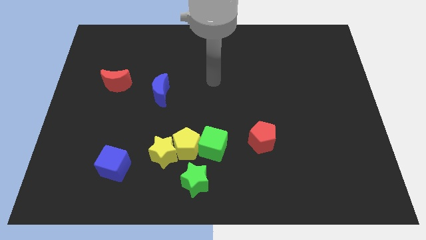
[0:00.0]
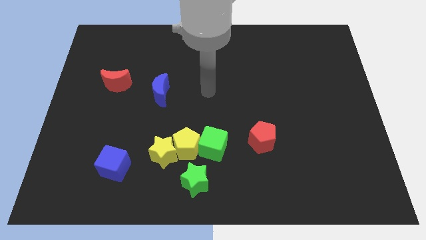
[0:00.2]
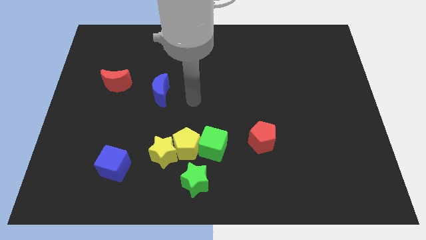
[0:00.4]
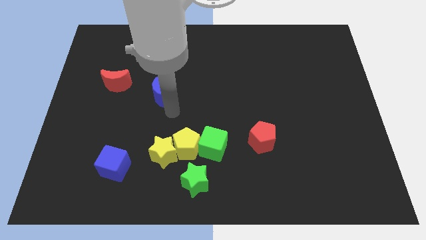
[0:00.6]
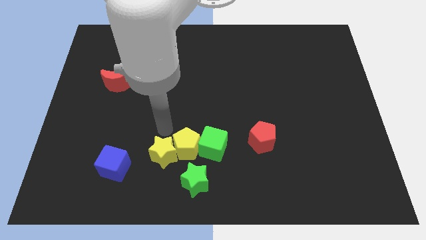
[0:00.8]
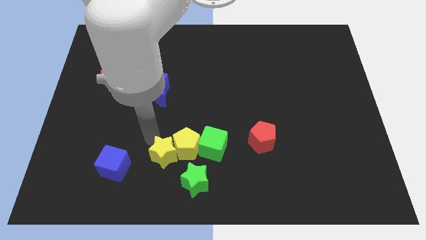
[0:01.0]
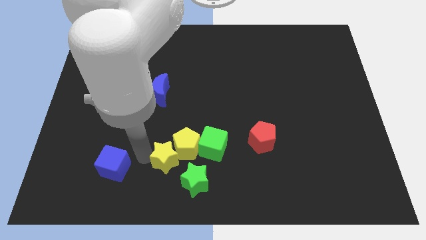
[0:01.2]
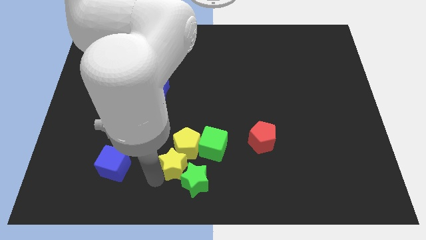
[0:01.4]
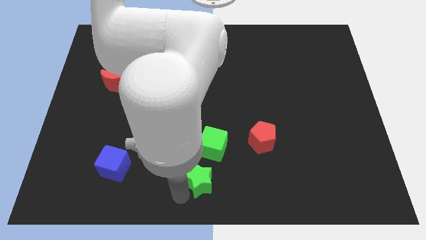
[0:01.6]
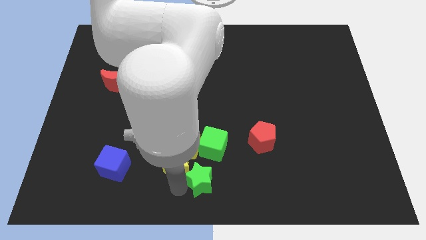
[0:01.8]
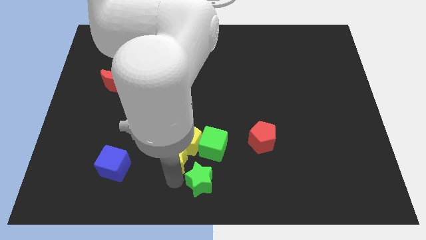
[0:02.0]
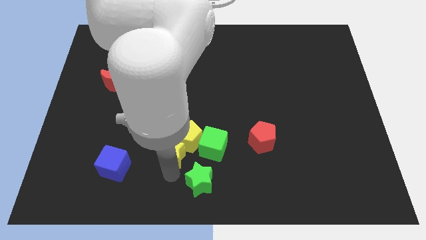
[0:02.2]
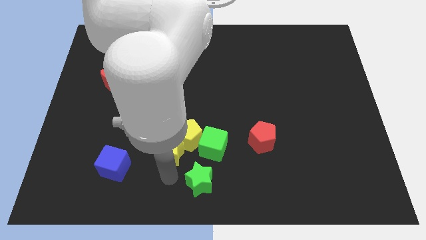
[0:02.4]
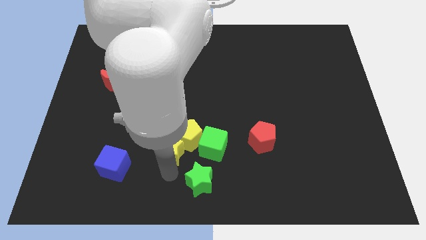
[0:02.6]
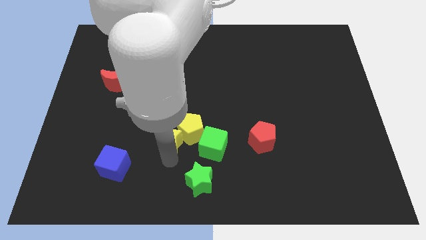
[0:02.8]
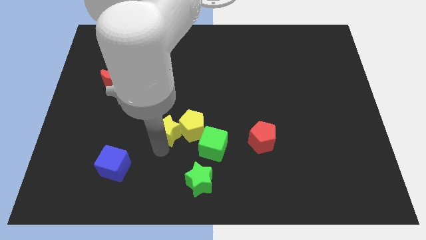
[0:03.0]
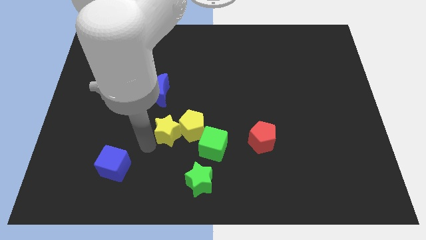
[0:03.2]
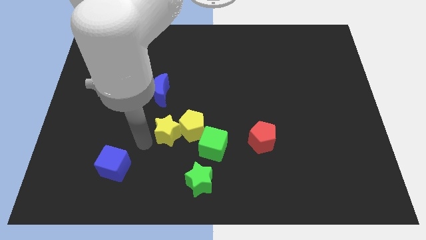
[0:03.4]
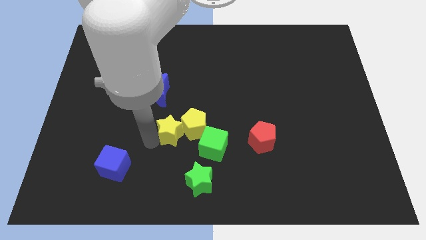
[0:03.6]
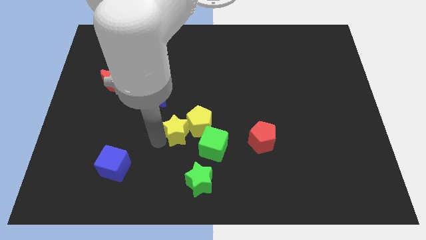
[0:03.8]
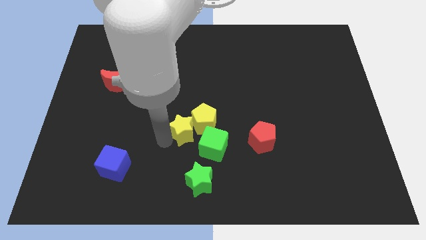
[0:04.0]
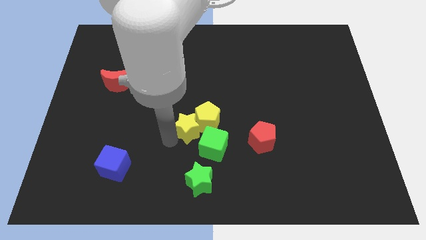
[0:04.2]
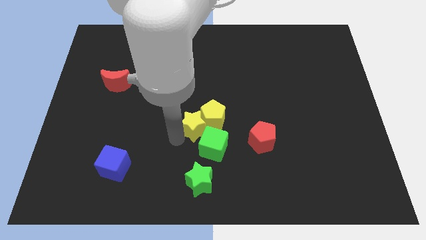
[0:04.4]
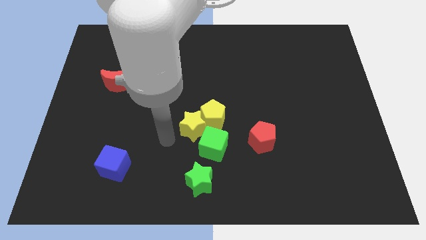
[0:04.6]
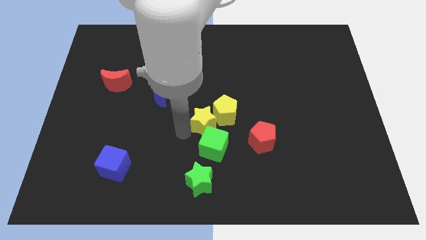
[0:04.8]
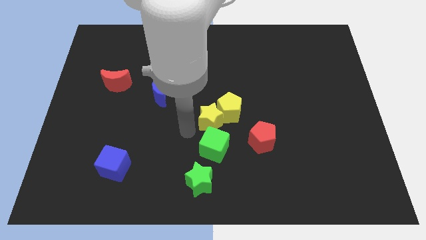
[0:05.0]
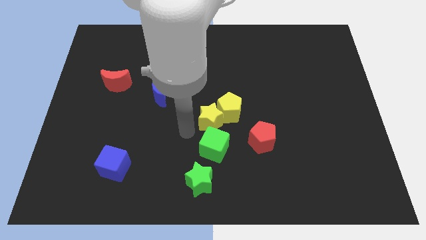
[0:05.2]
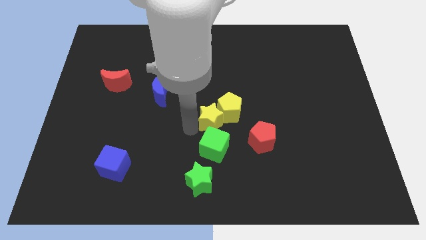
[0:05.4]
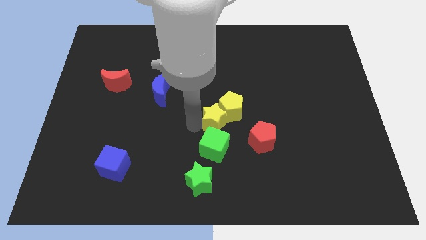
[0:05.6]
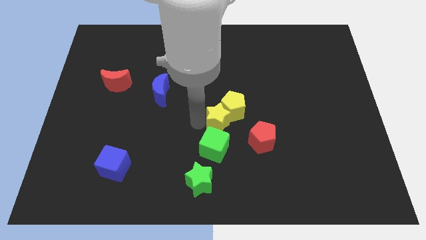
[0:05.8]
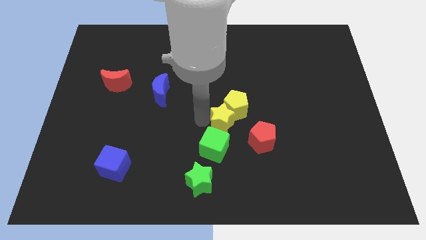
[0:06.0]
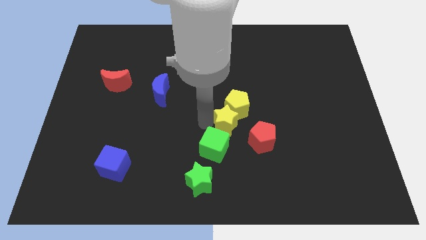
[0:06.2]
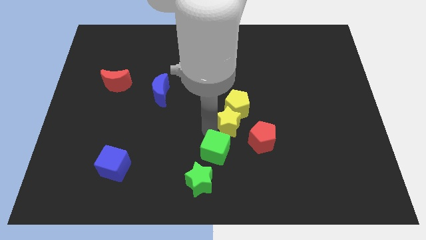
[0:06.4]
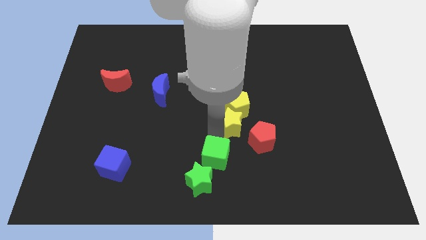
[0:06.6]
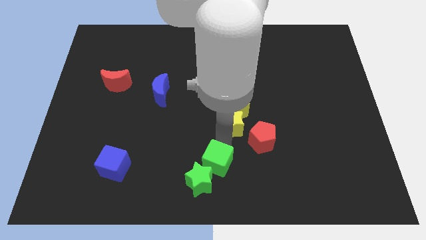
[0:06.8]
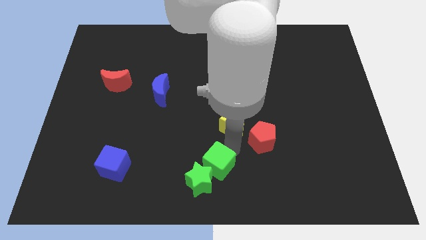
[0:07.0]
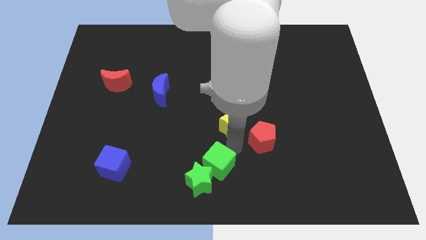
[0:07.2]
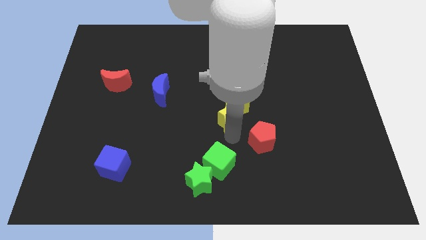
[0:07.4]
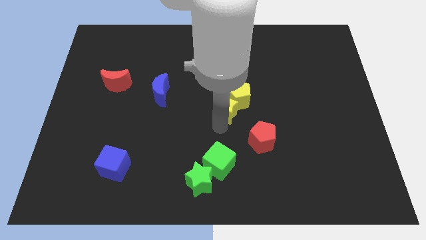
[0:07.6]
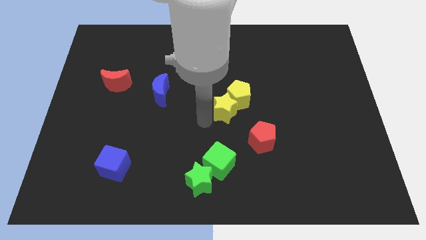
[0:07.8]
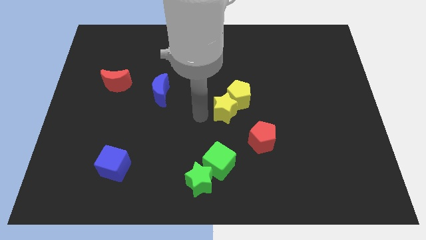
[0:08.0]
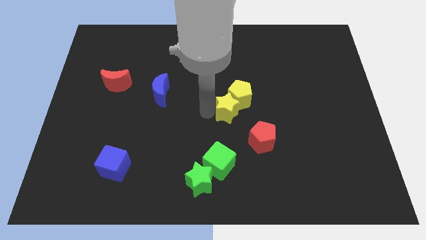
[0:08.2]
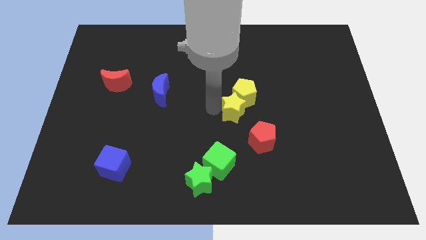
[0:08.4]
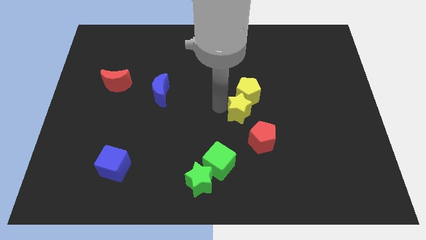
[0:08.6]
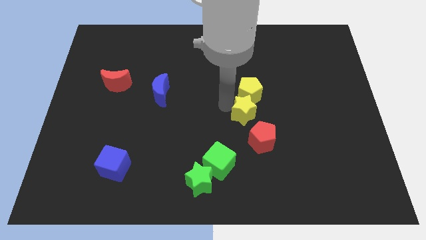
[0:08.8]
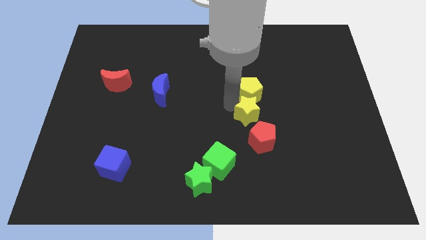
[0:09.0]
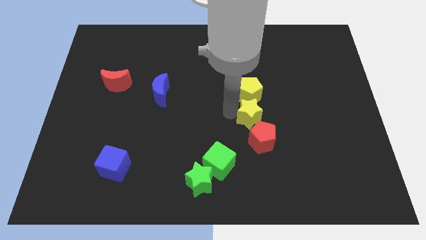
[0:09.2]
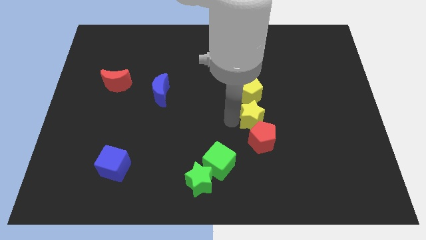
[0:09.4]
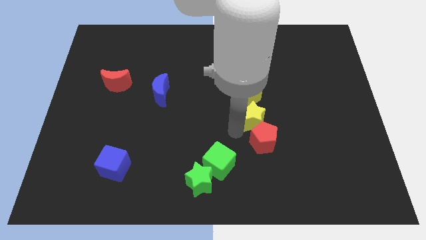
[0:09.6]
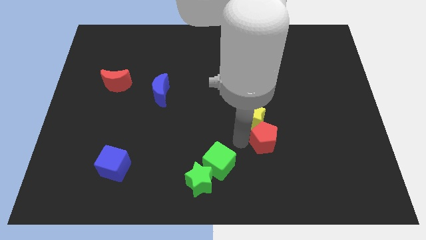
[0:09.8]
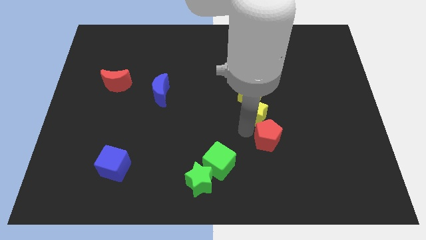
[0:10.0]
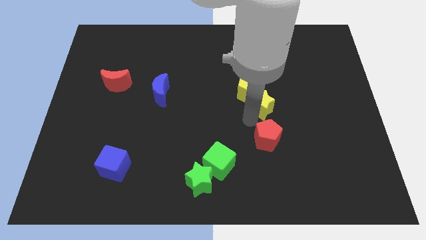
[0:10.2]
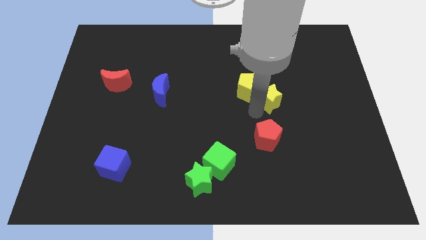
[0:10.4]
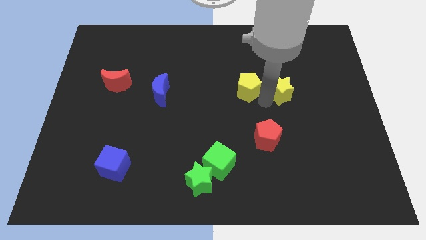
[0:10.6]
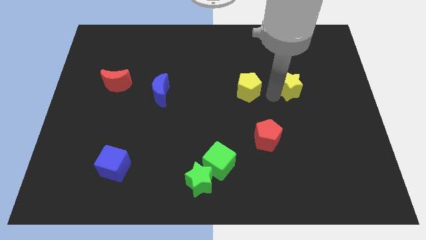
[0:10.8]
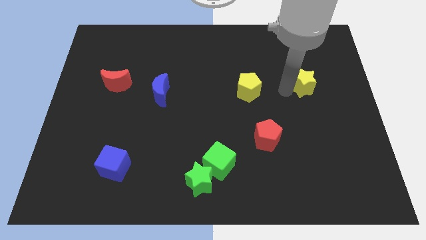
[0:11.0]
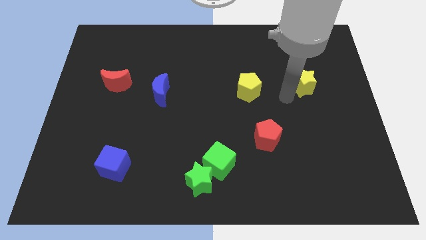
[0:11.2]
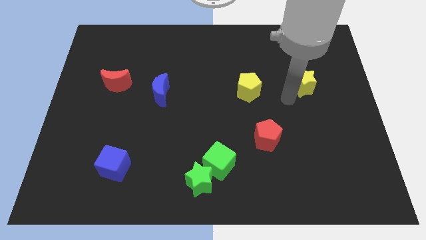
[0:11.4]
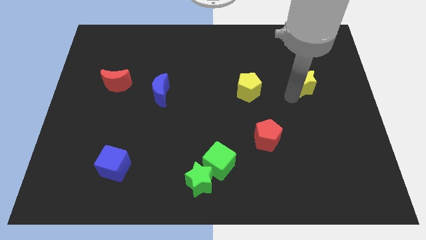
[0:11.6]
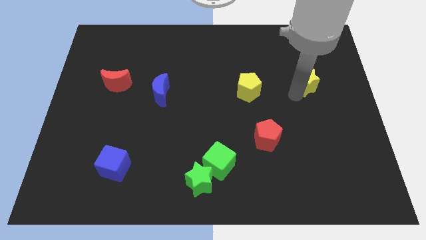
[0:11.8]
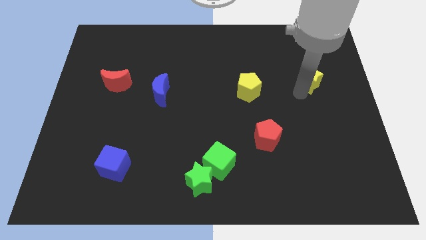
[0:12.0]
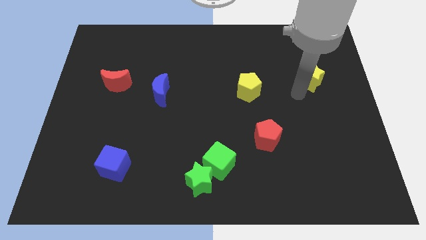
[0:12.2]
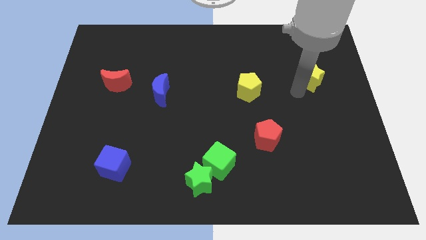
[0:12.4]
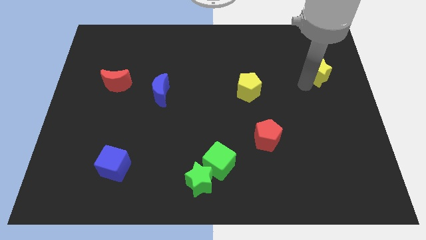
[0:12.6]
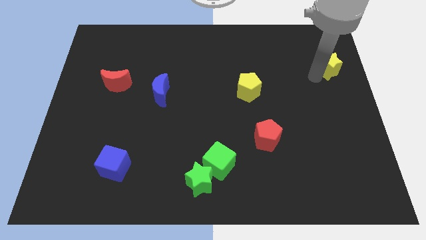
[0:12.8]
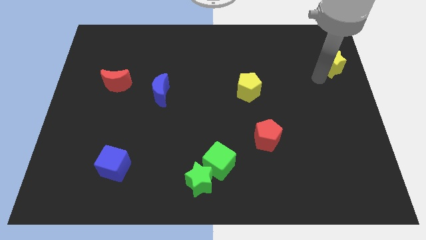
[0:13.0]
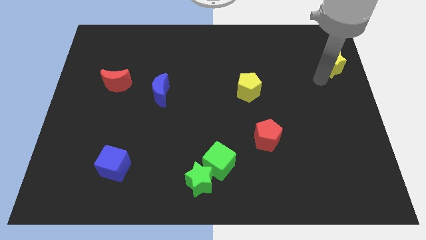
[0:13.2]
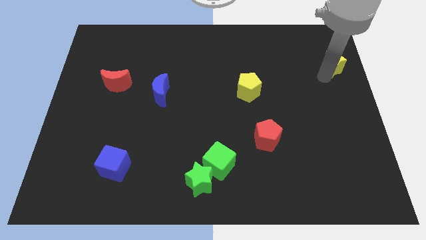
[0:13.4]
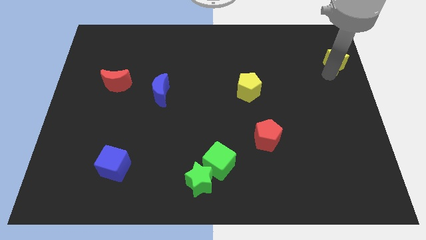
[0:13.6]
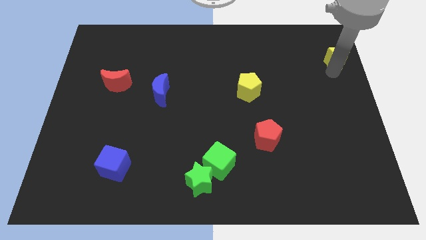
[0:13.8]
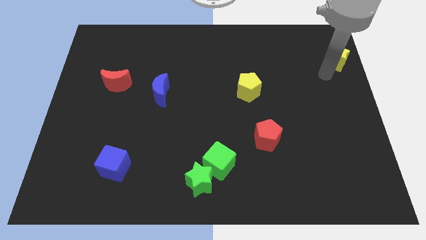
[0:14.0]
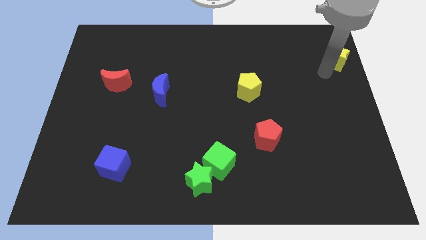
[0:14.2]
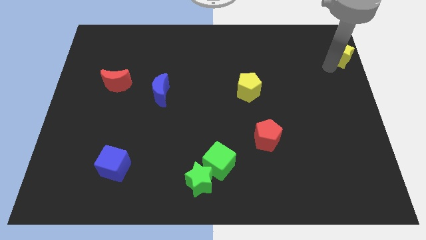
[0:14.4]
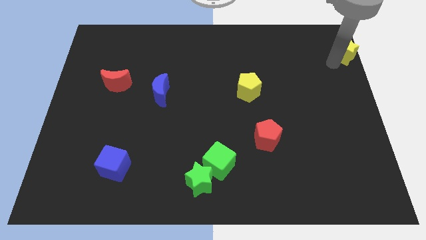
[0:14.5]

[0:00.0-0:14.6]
push the yellow star to the top right of the board
